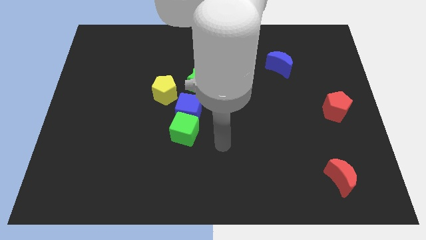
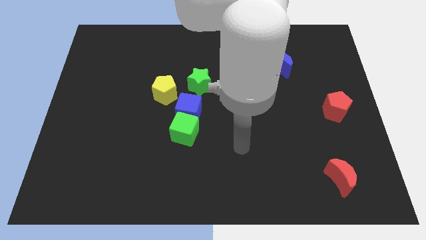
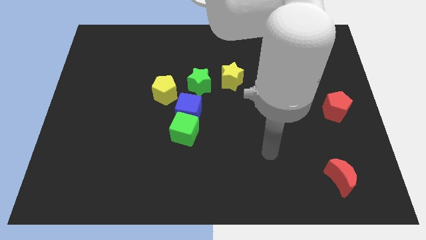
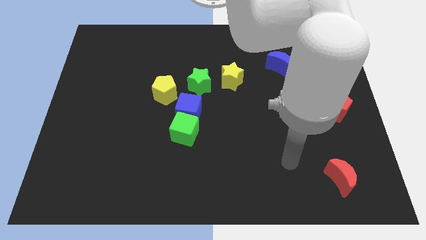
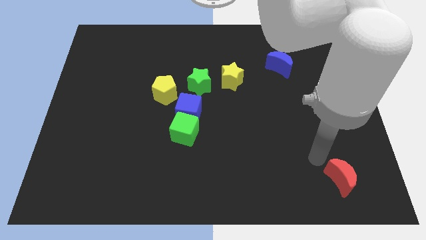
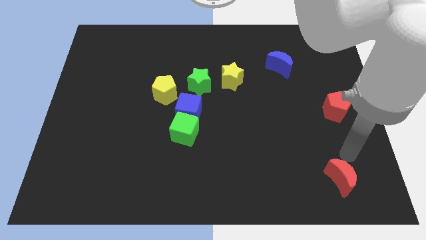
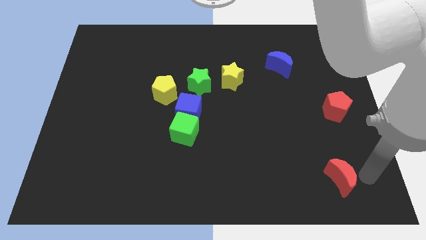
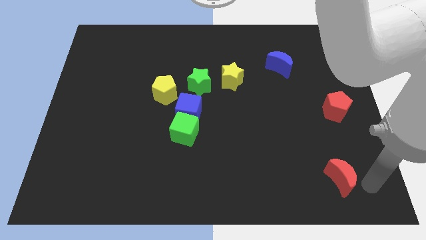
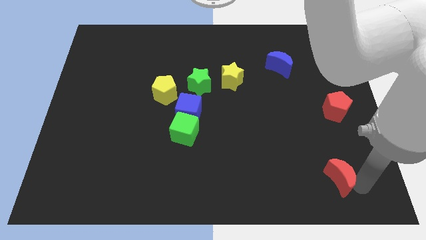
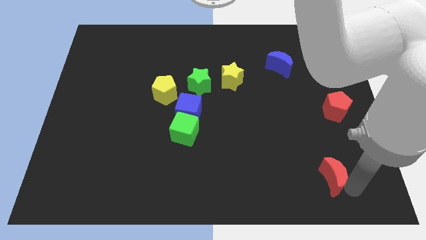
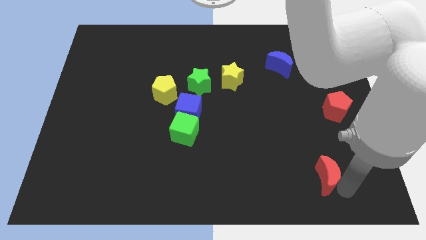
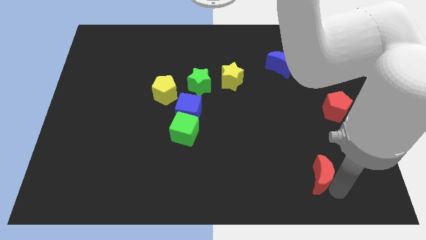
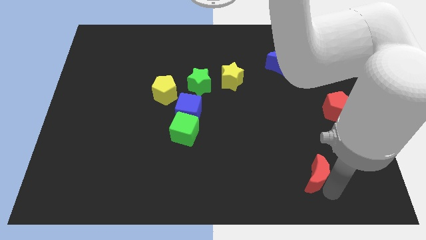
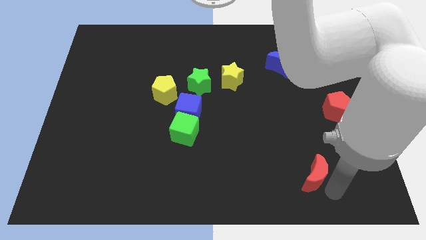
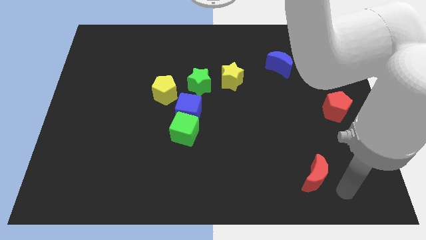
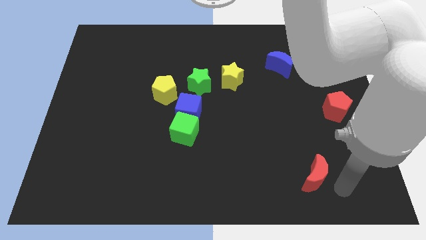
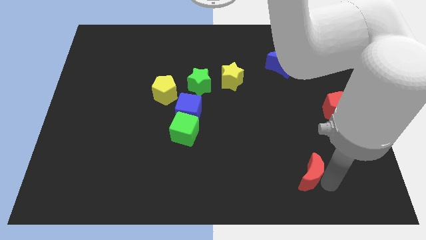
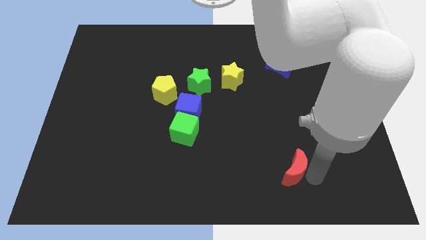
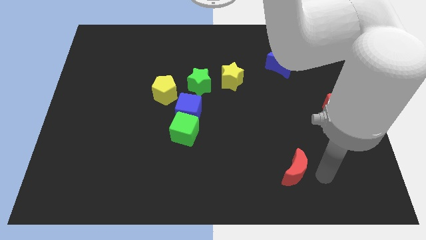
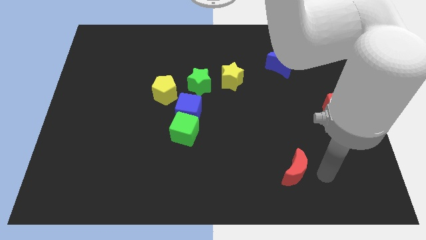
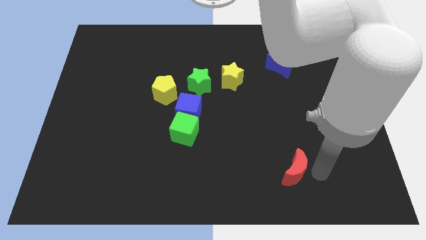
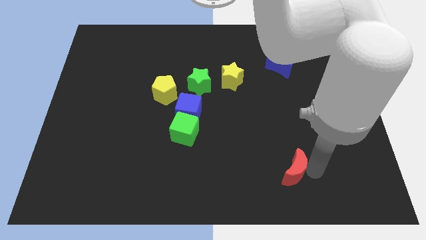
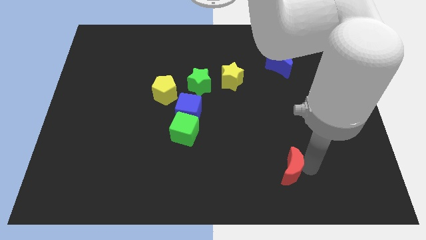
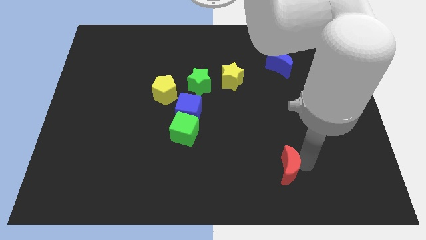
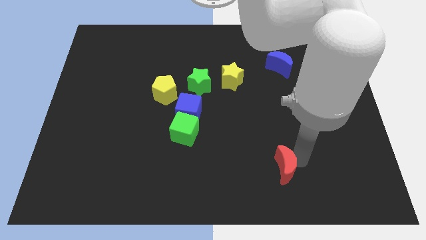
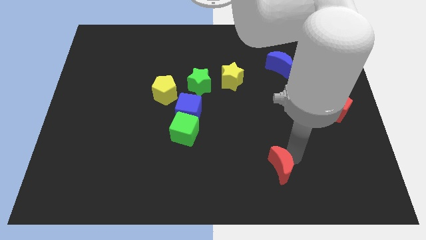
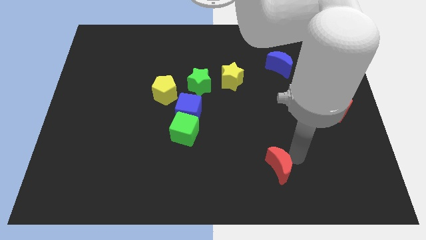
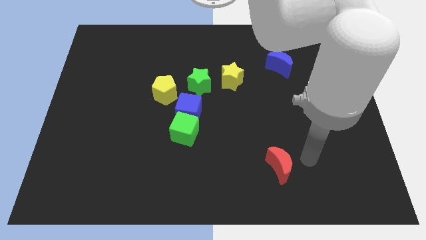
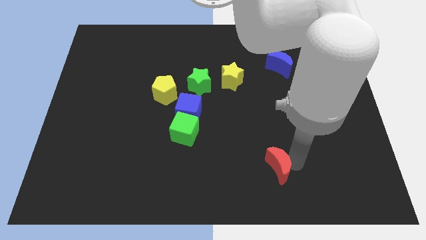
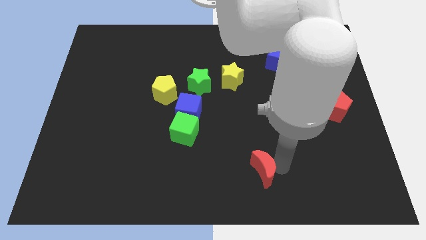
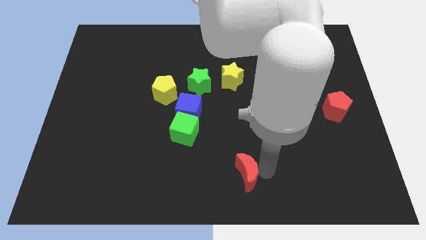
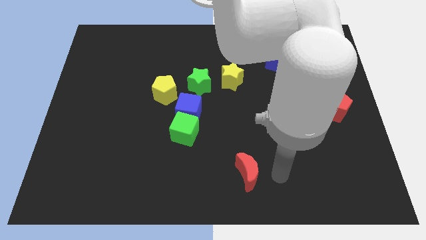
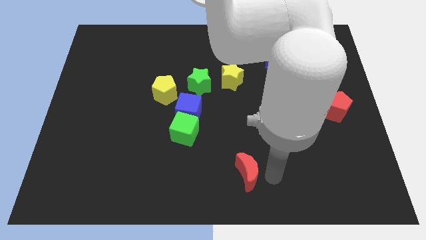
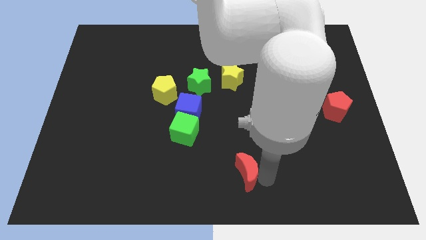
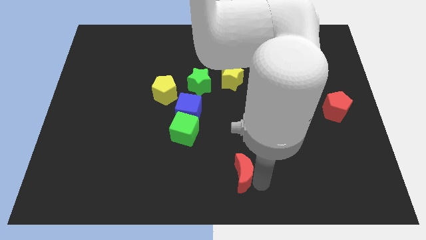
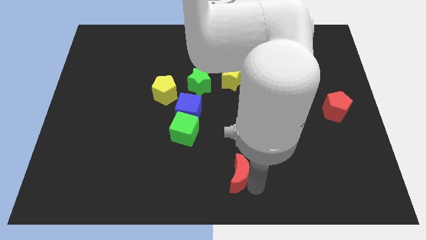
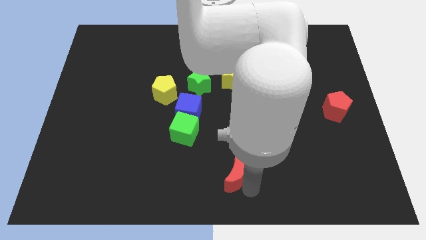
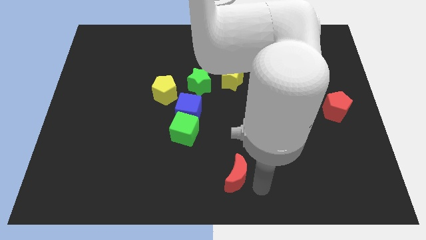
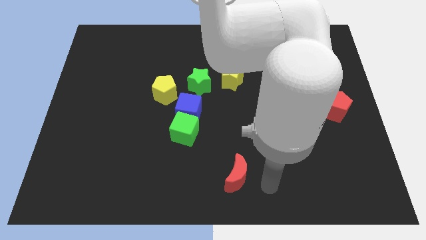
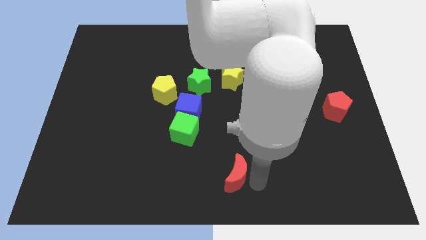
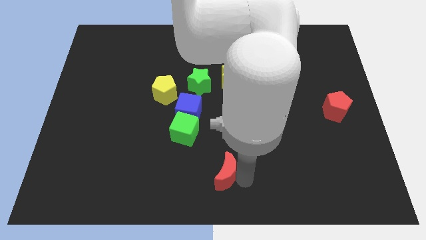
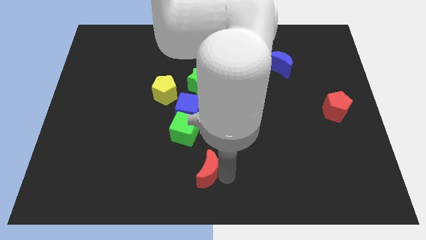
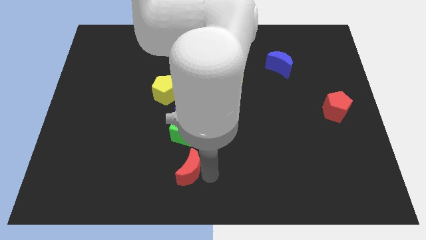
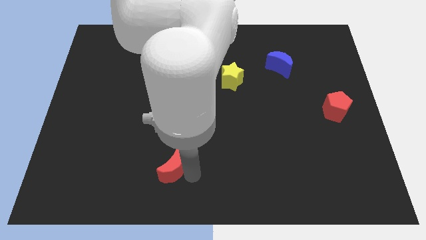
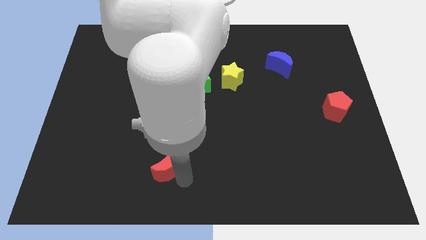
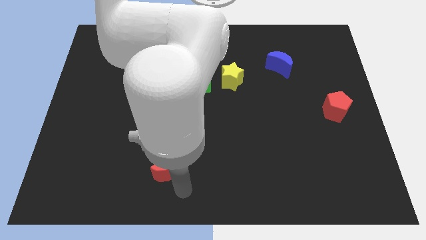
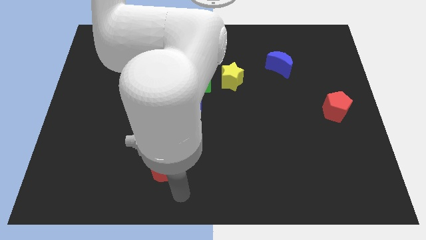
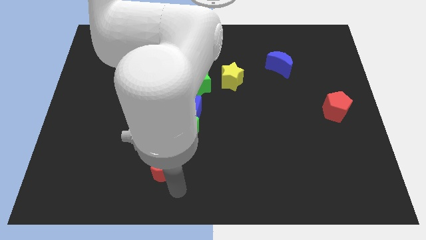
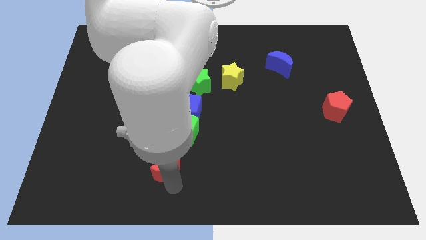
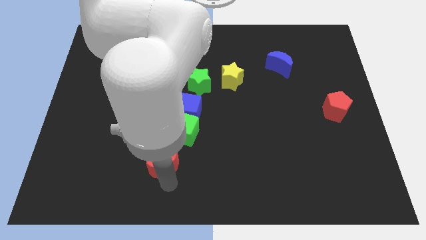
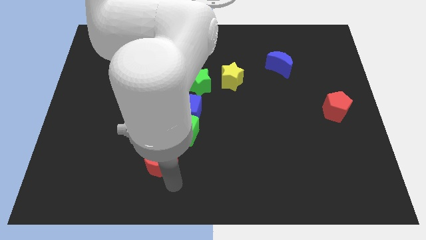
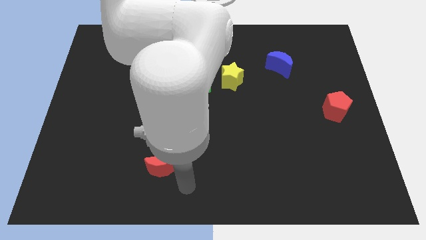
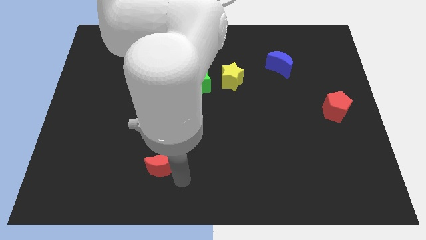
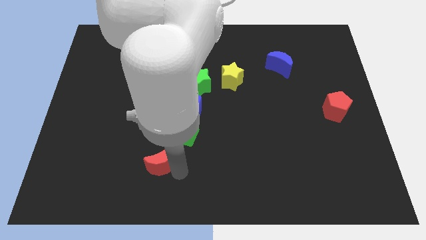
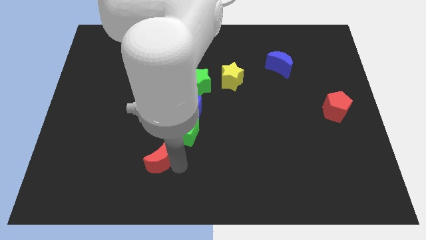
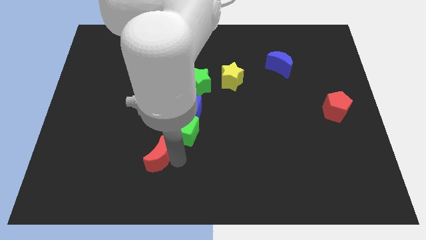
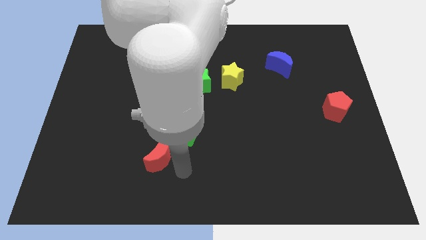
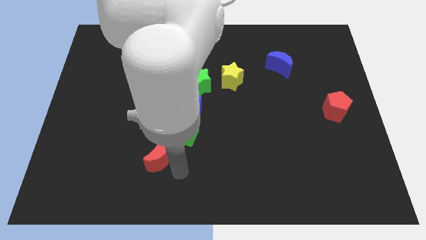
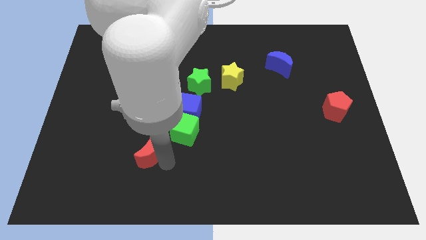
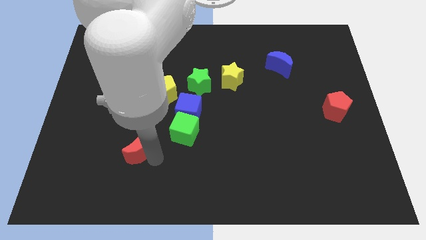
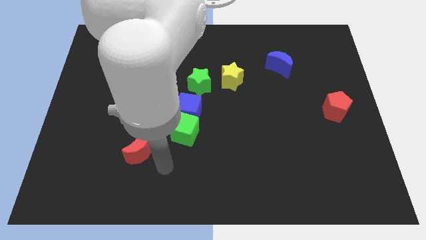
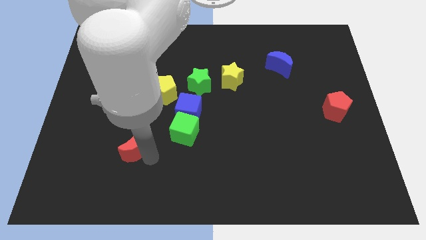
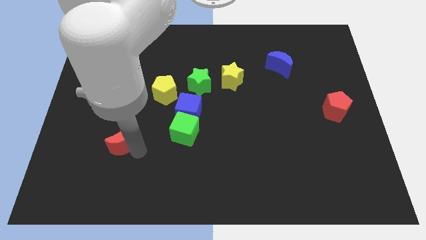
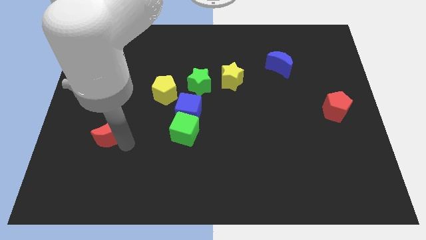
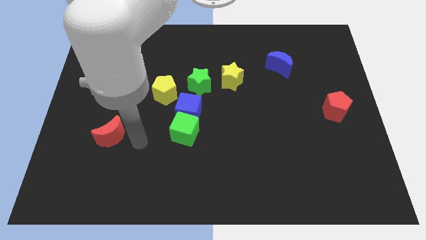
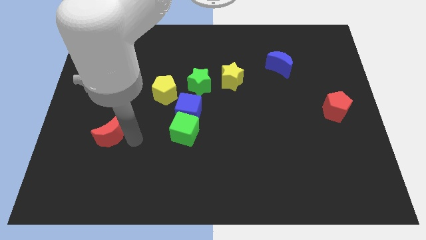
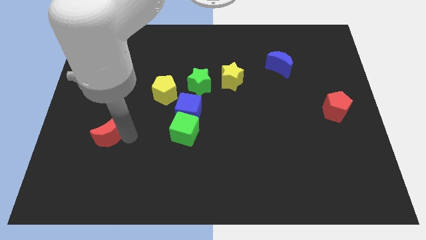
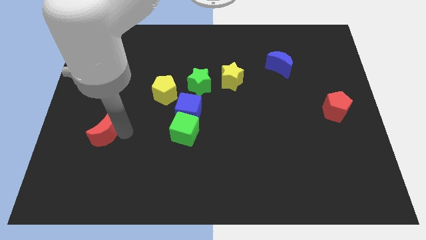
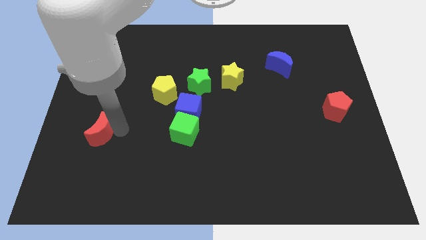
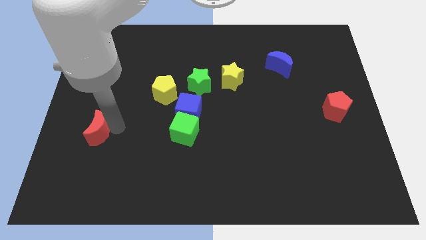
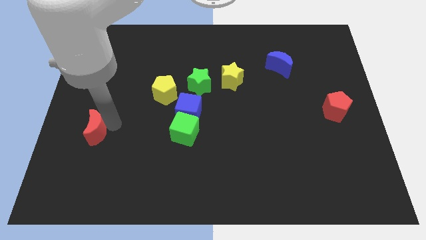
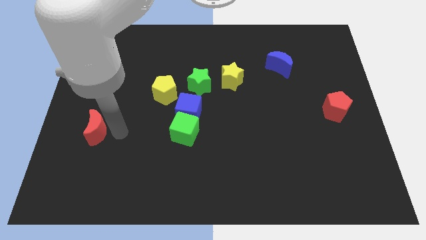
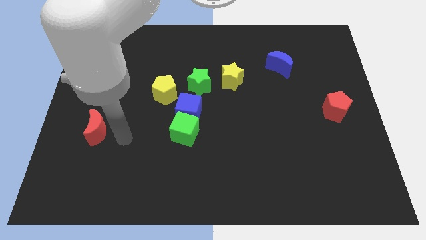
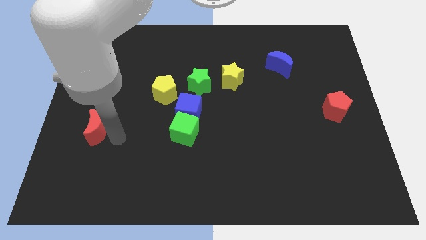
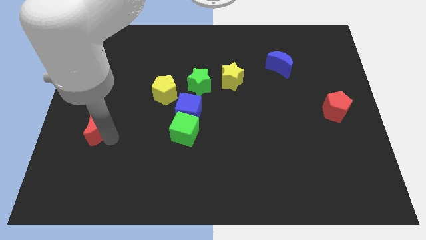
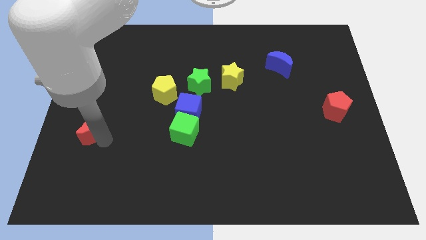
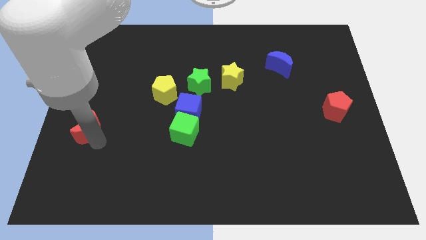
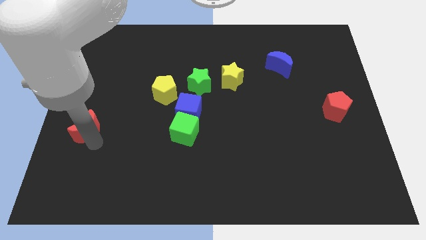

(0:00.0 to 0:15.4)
push the red moon to the center left
